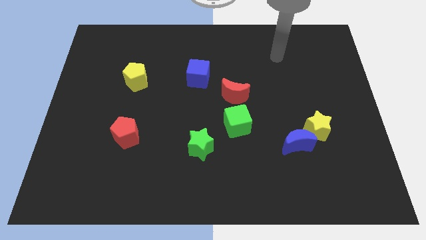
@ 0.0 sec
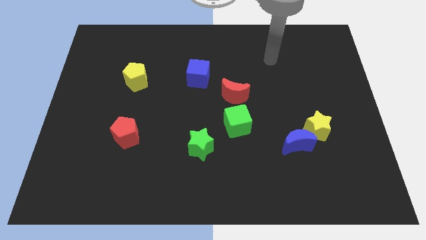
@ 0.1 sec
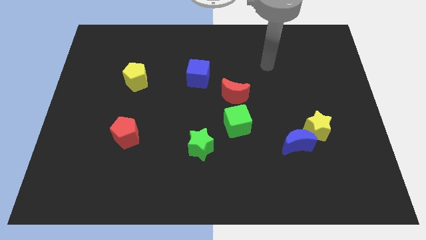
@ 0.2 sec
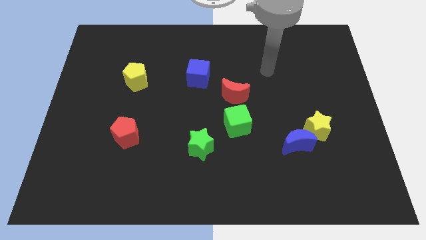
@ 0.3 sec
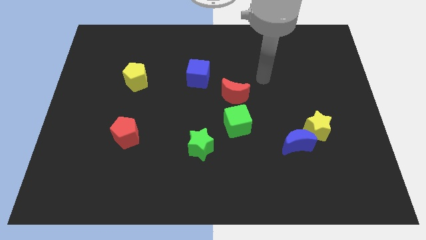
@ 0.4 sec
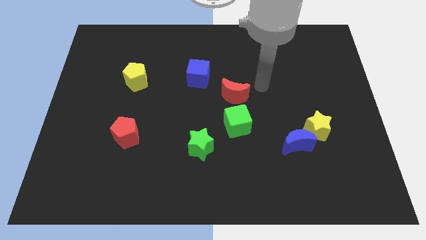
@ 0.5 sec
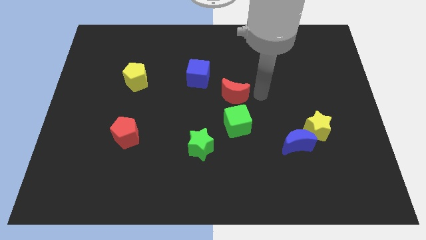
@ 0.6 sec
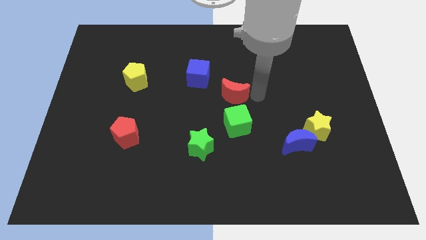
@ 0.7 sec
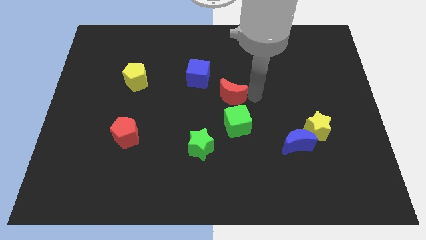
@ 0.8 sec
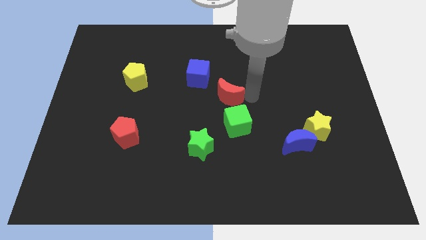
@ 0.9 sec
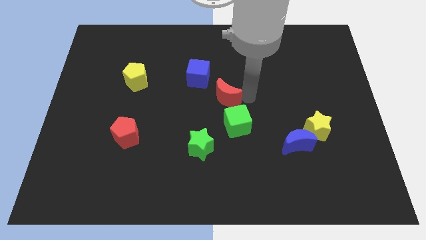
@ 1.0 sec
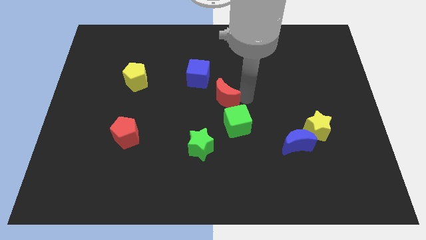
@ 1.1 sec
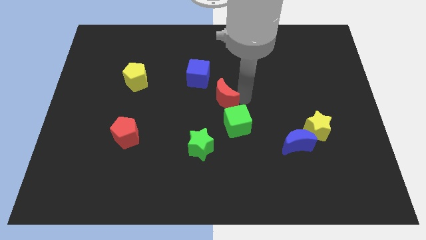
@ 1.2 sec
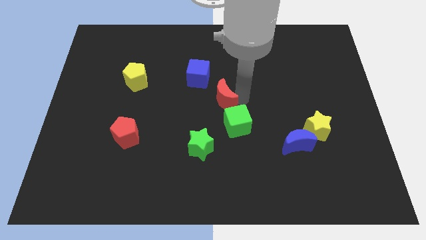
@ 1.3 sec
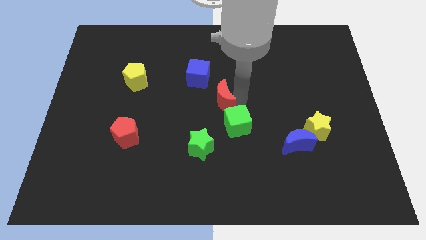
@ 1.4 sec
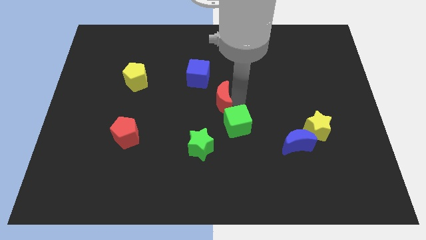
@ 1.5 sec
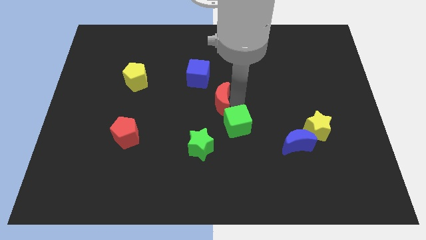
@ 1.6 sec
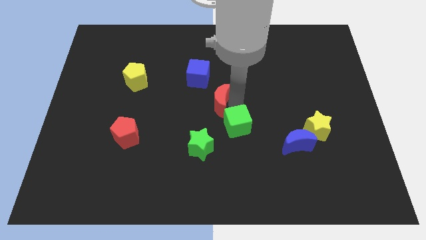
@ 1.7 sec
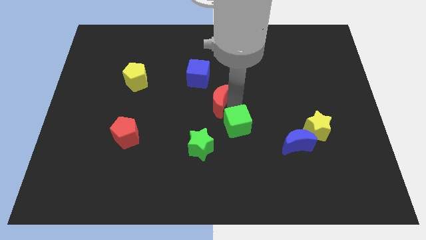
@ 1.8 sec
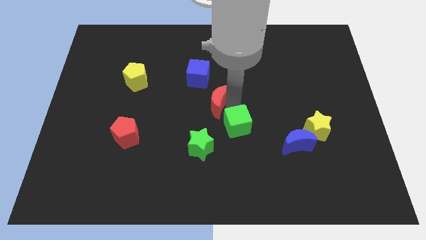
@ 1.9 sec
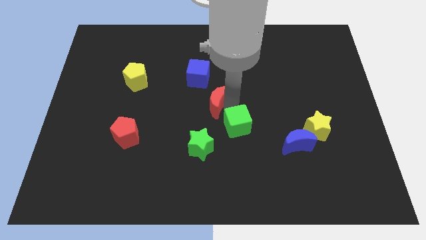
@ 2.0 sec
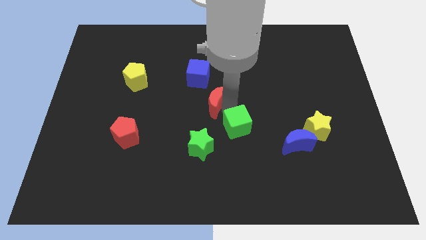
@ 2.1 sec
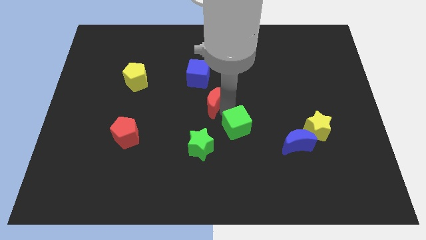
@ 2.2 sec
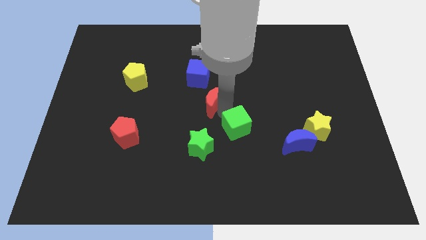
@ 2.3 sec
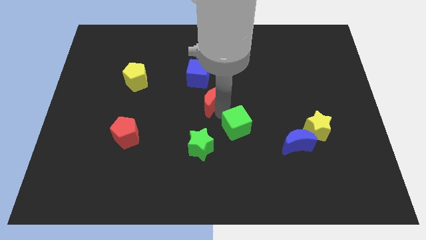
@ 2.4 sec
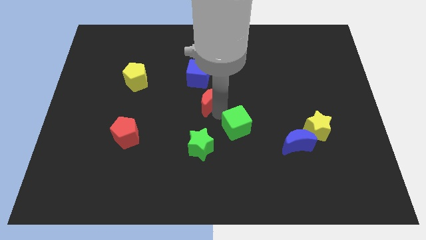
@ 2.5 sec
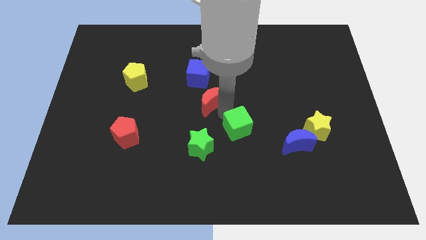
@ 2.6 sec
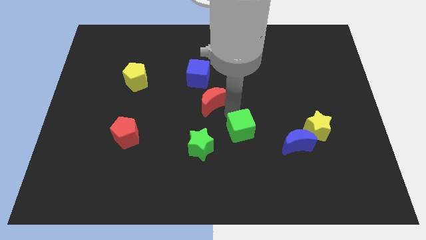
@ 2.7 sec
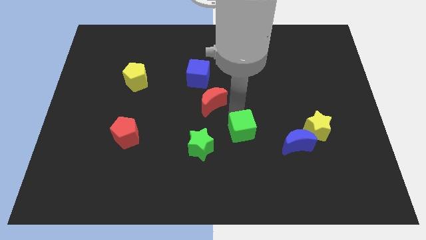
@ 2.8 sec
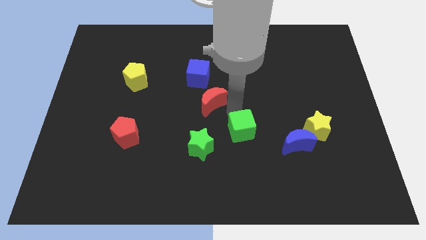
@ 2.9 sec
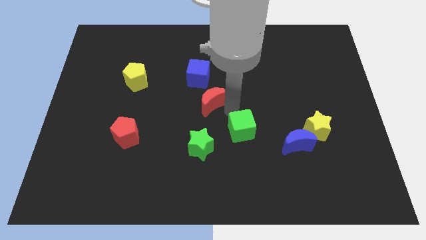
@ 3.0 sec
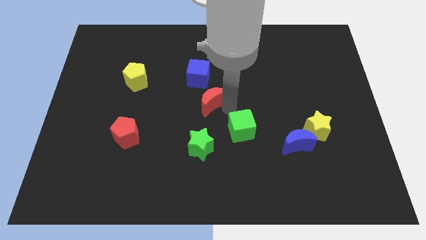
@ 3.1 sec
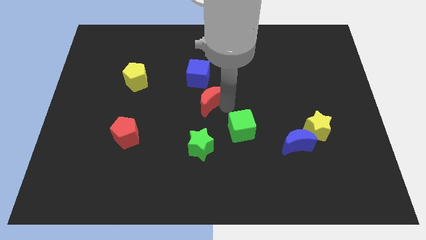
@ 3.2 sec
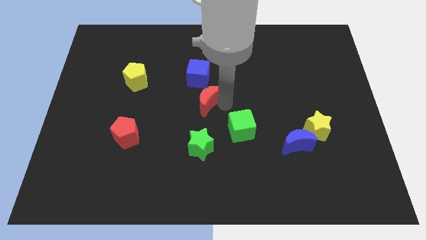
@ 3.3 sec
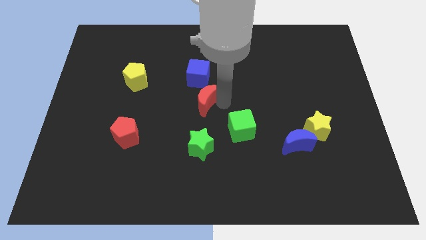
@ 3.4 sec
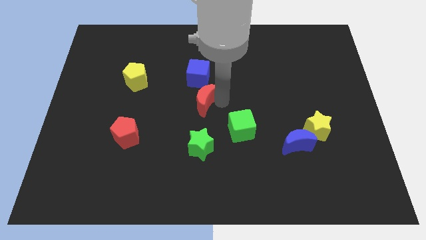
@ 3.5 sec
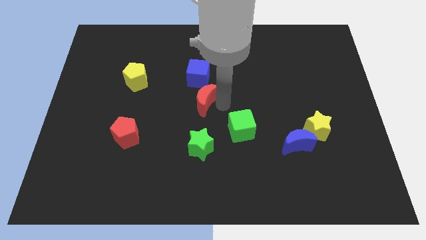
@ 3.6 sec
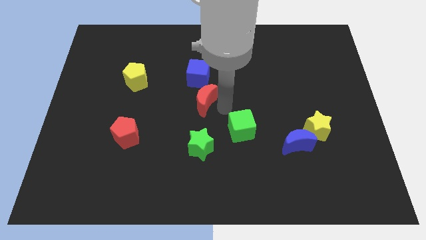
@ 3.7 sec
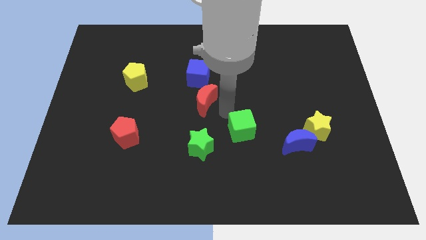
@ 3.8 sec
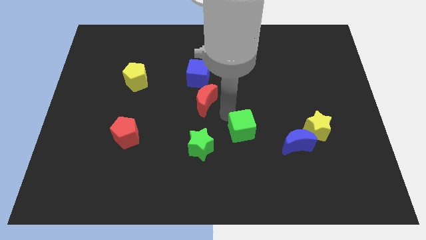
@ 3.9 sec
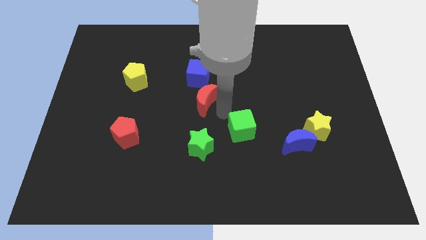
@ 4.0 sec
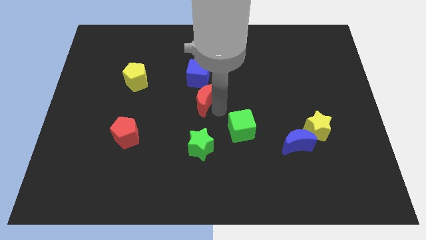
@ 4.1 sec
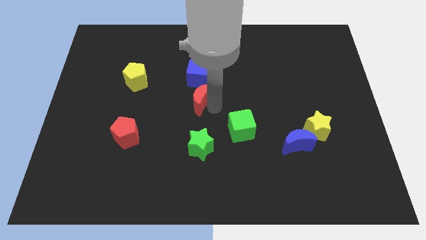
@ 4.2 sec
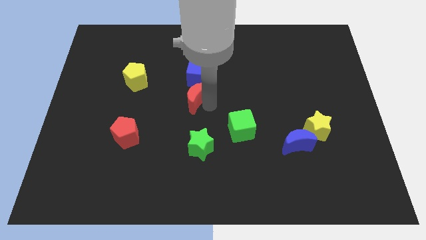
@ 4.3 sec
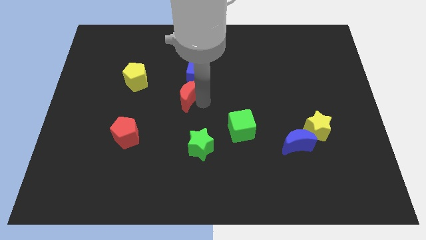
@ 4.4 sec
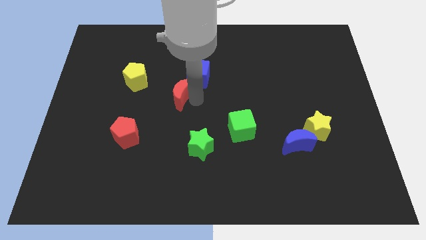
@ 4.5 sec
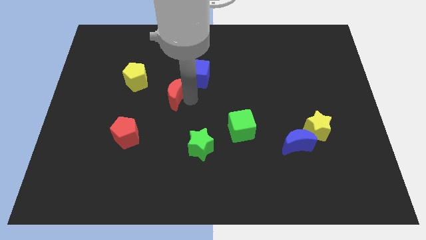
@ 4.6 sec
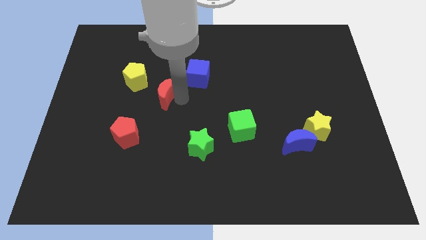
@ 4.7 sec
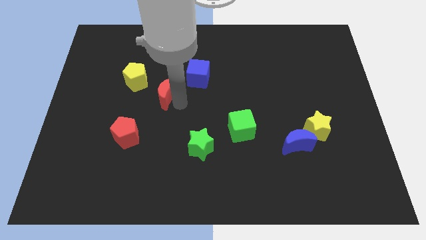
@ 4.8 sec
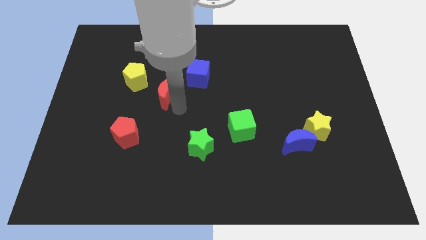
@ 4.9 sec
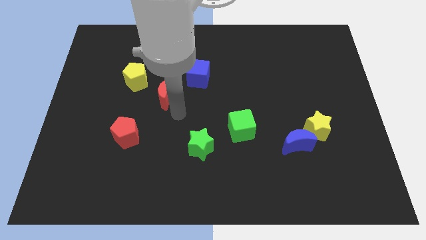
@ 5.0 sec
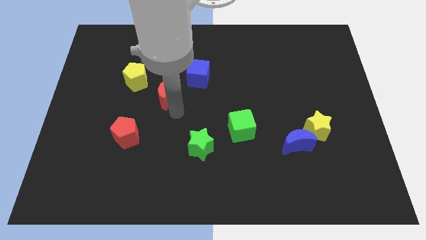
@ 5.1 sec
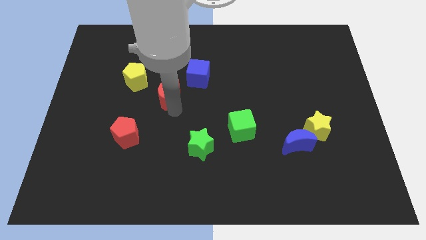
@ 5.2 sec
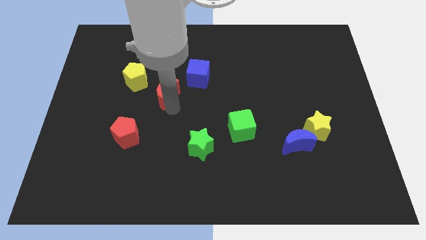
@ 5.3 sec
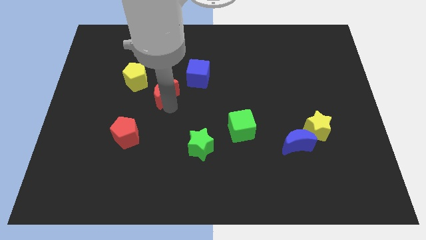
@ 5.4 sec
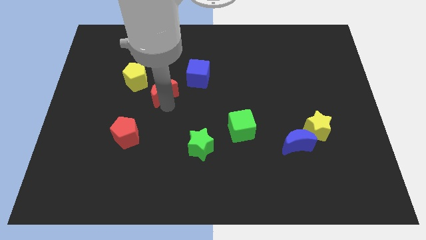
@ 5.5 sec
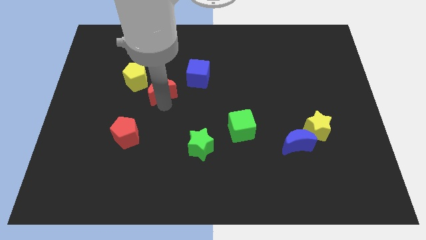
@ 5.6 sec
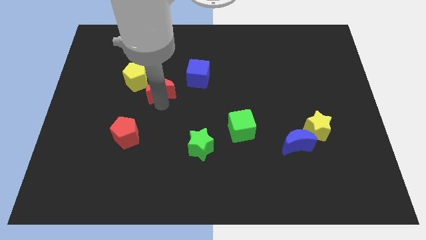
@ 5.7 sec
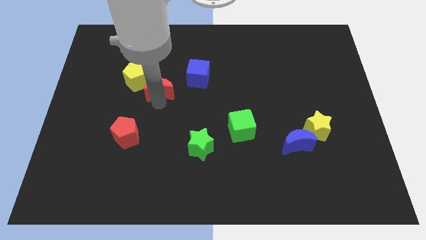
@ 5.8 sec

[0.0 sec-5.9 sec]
push the red moon to the left of the blue cube
